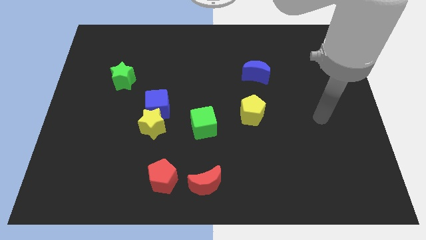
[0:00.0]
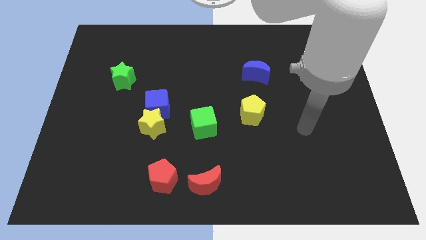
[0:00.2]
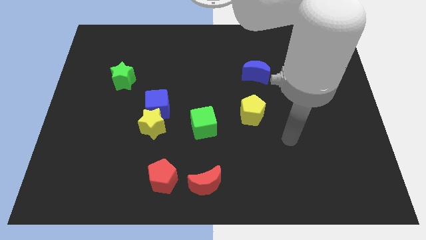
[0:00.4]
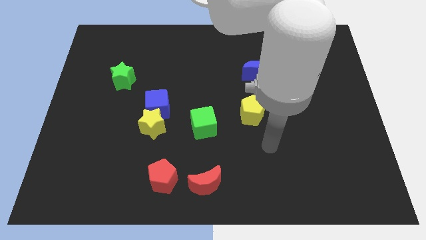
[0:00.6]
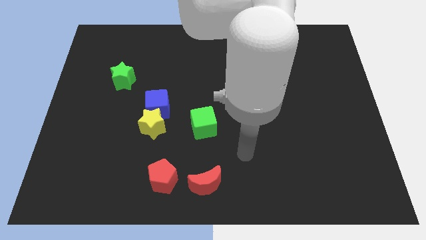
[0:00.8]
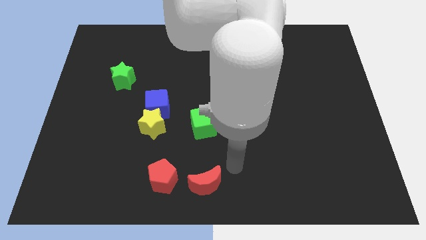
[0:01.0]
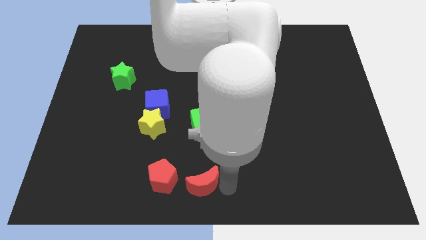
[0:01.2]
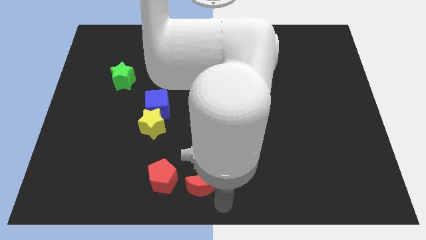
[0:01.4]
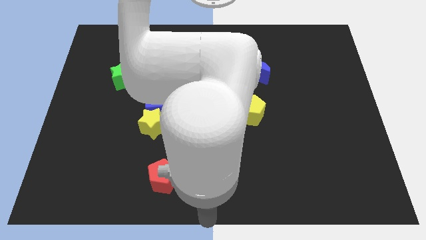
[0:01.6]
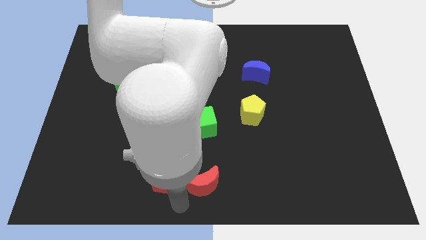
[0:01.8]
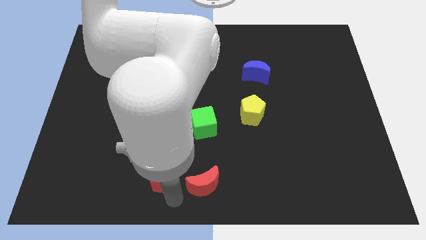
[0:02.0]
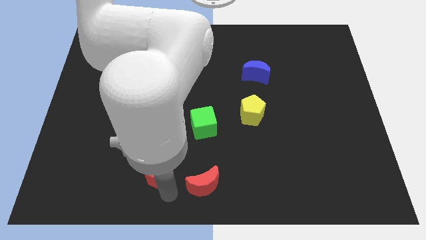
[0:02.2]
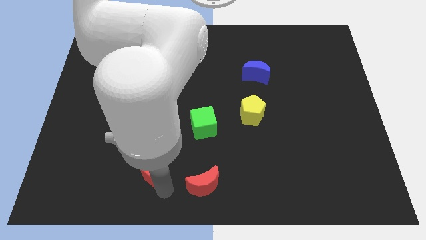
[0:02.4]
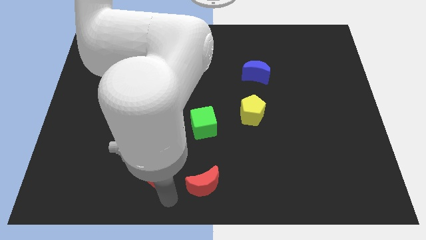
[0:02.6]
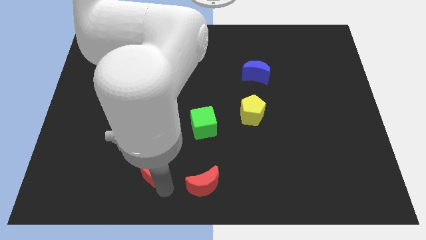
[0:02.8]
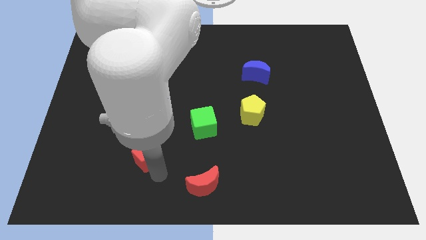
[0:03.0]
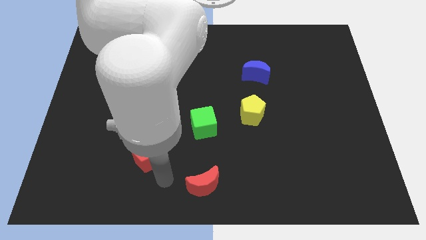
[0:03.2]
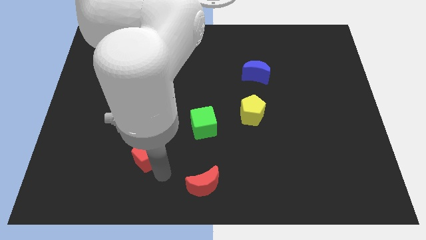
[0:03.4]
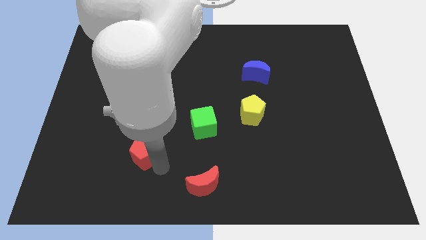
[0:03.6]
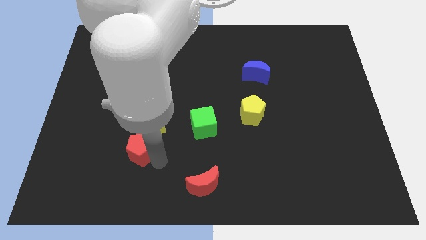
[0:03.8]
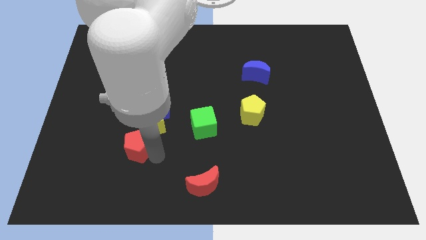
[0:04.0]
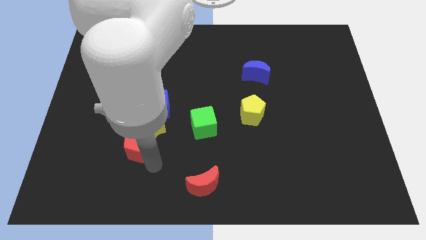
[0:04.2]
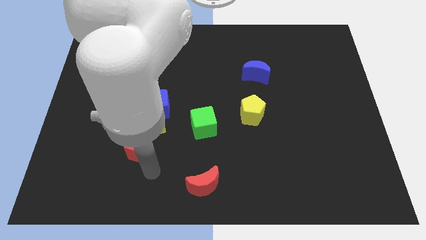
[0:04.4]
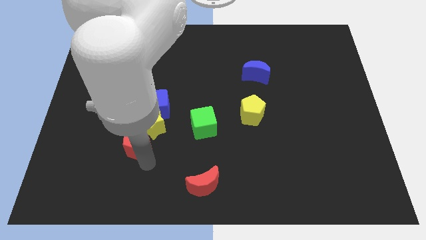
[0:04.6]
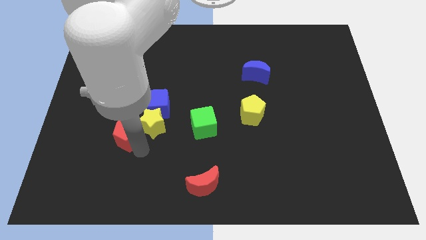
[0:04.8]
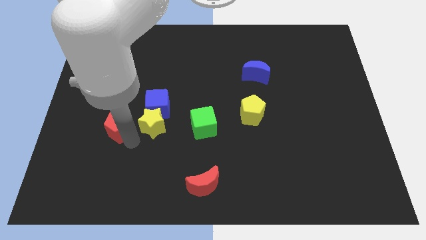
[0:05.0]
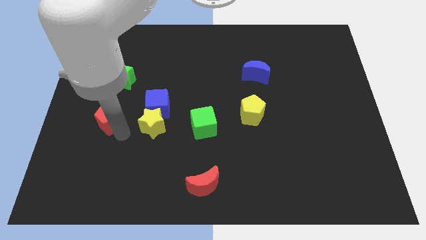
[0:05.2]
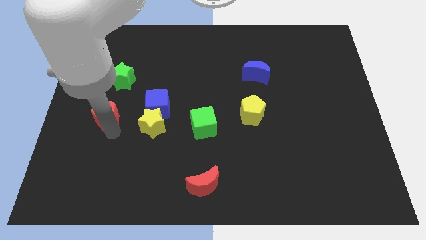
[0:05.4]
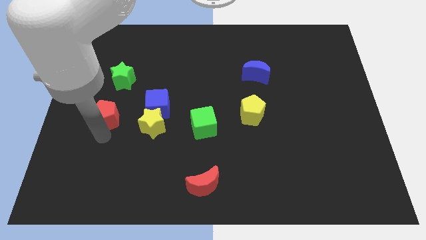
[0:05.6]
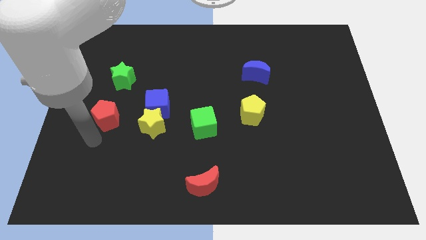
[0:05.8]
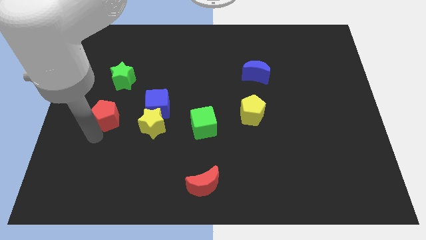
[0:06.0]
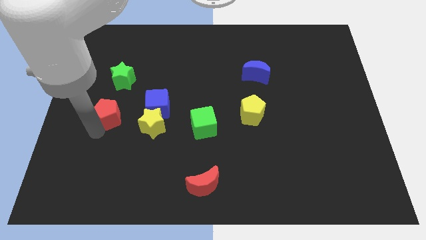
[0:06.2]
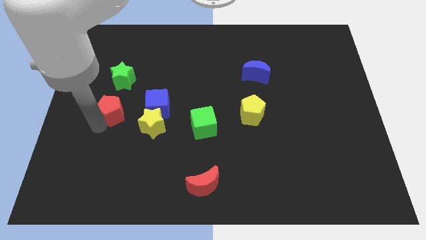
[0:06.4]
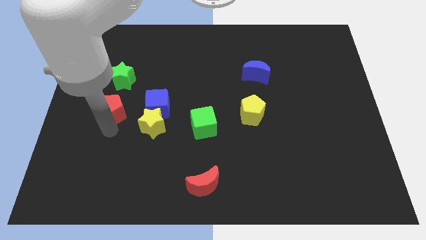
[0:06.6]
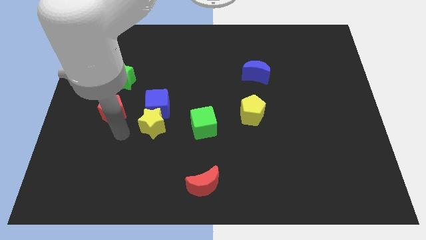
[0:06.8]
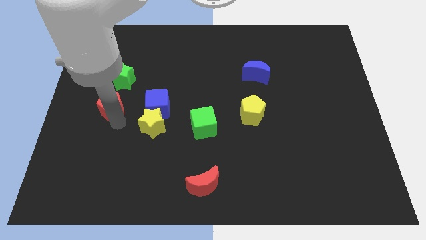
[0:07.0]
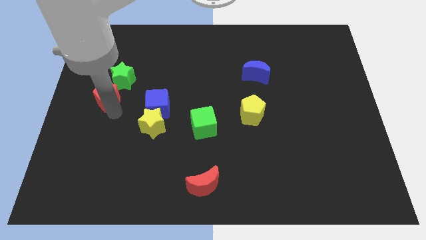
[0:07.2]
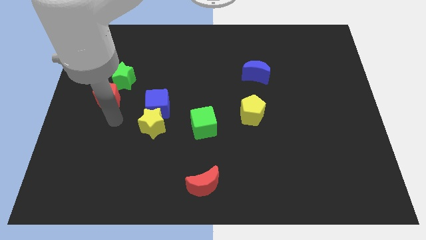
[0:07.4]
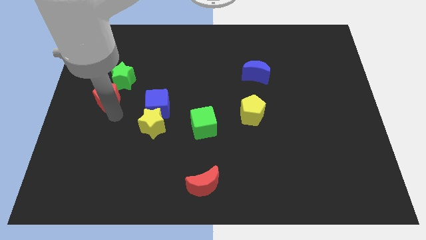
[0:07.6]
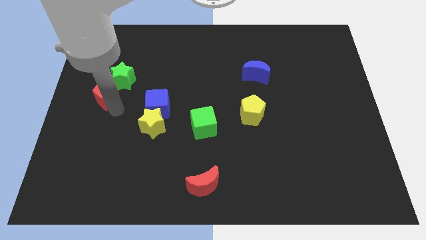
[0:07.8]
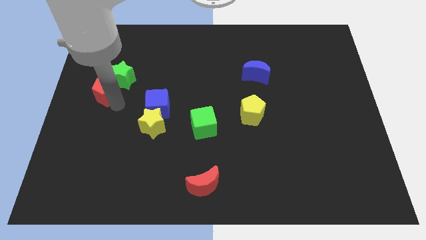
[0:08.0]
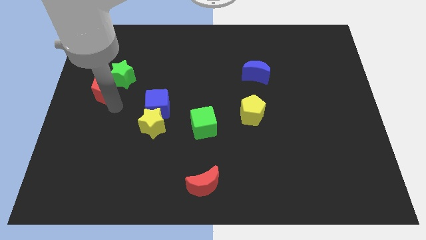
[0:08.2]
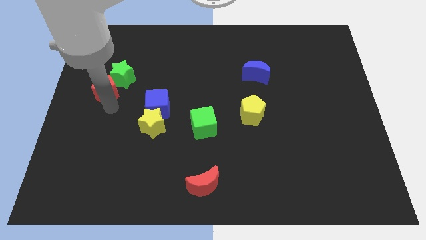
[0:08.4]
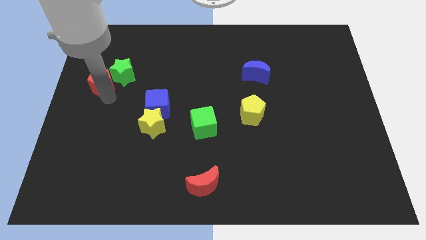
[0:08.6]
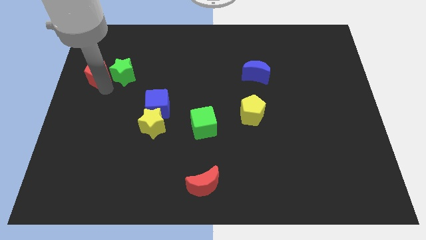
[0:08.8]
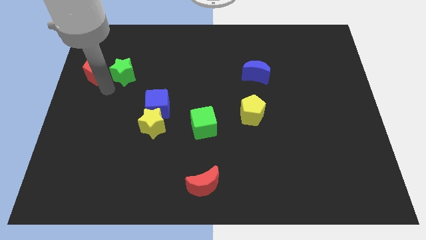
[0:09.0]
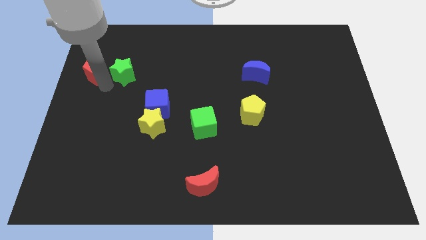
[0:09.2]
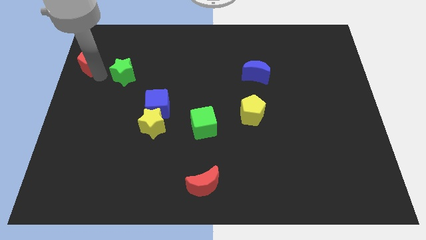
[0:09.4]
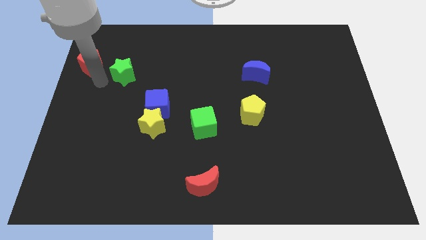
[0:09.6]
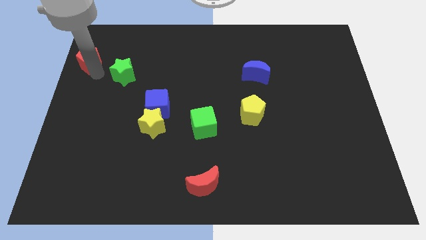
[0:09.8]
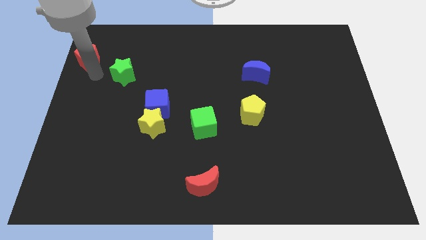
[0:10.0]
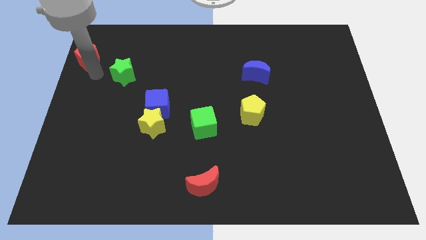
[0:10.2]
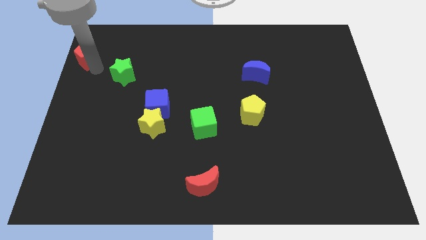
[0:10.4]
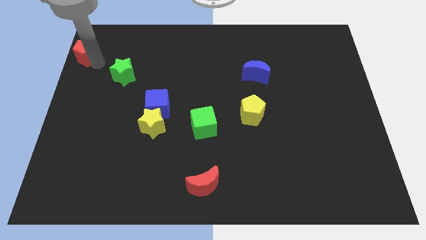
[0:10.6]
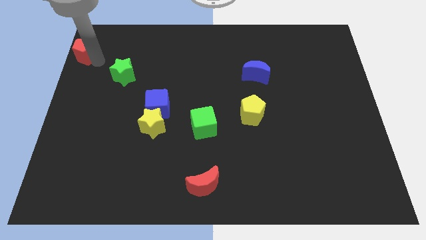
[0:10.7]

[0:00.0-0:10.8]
put the red pentagon to the top left corner

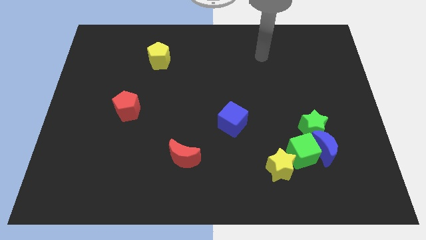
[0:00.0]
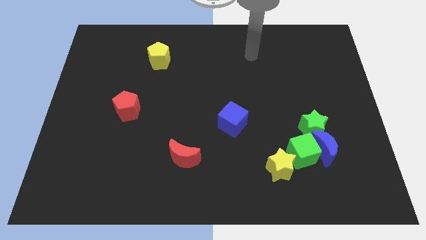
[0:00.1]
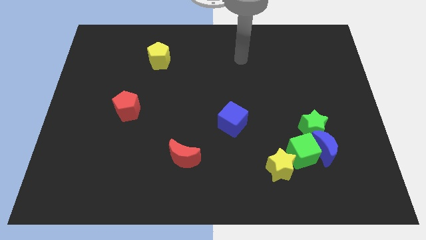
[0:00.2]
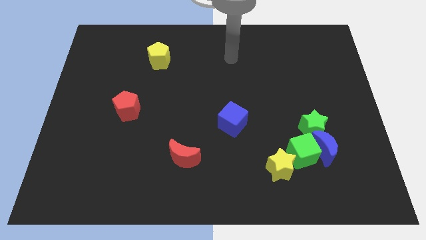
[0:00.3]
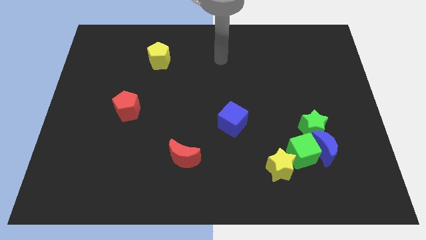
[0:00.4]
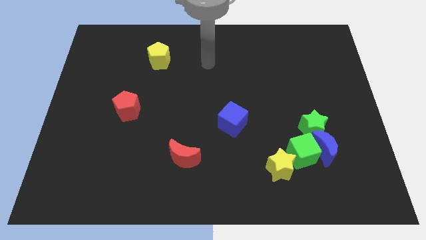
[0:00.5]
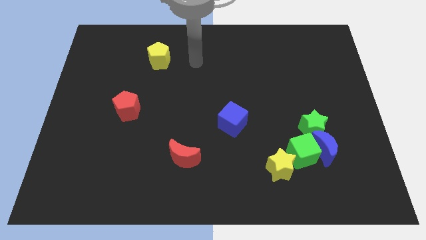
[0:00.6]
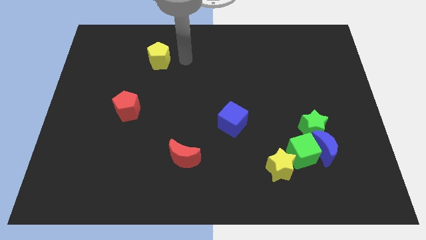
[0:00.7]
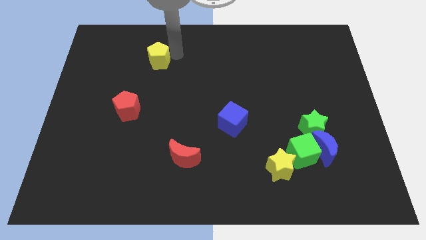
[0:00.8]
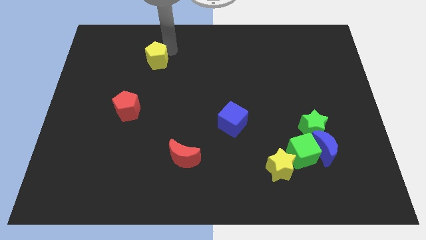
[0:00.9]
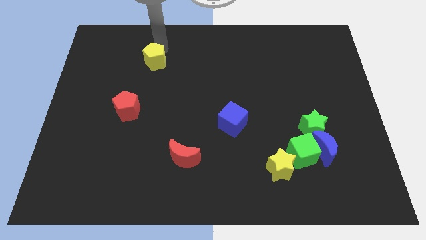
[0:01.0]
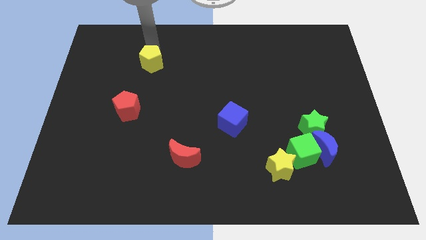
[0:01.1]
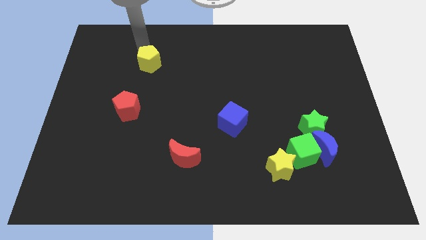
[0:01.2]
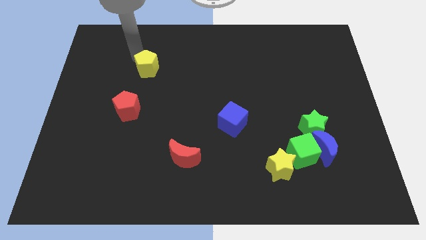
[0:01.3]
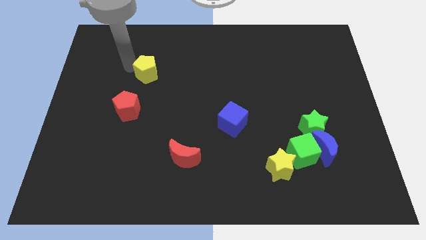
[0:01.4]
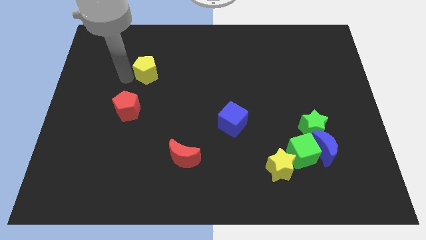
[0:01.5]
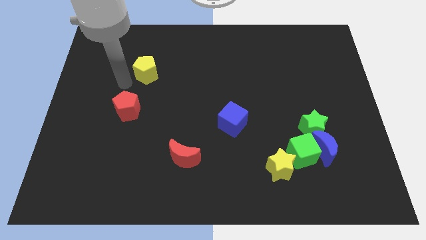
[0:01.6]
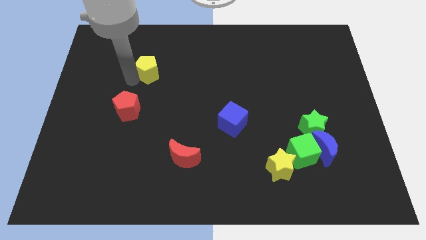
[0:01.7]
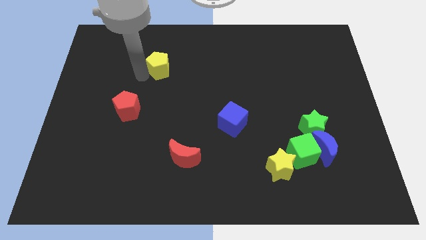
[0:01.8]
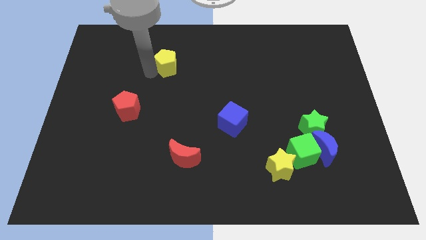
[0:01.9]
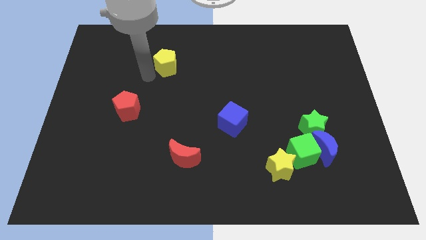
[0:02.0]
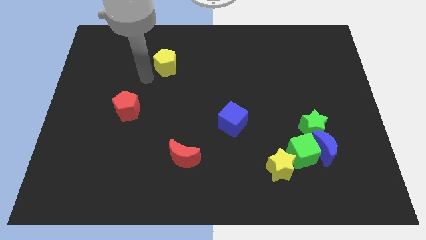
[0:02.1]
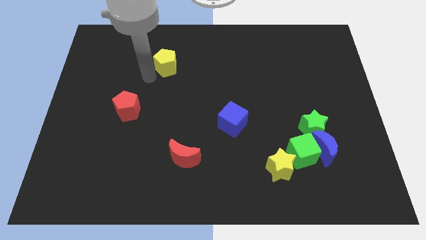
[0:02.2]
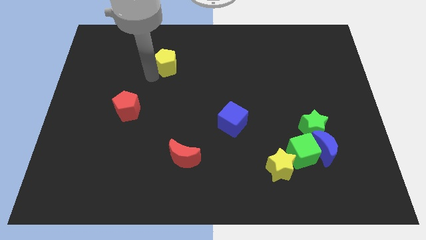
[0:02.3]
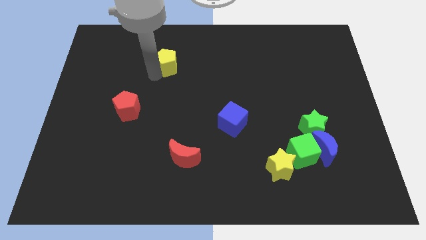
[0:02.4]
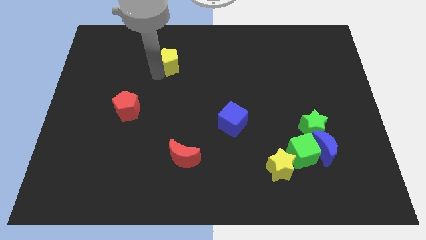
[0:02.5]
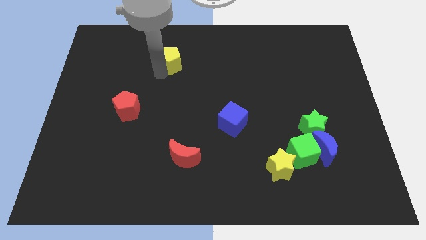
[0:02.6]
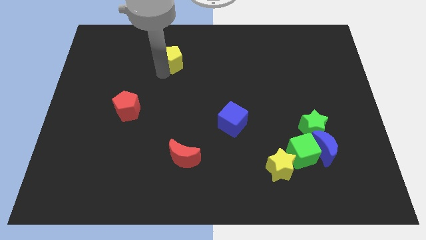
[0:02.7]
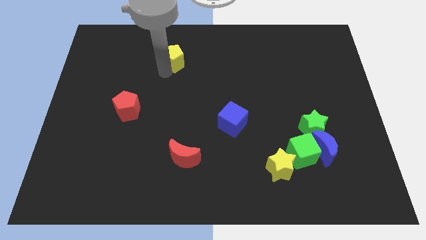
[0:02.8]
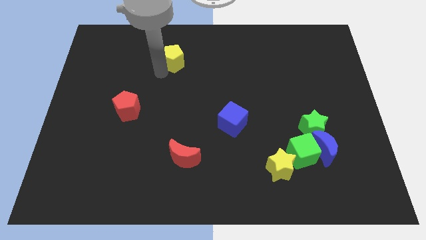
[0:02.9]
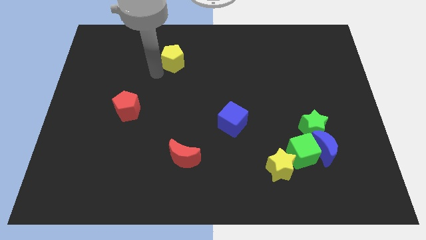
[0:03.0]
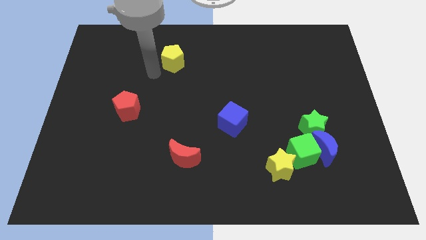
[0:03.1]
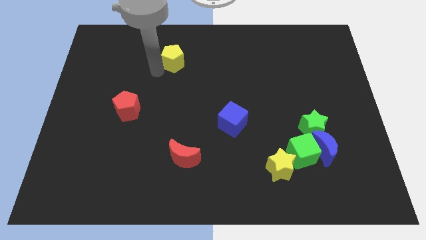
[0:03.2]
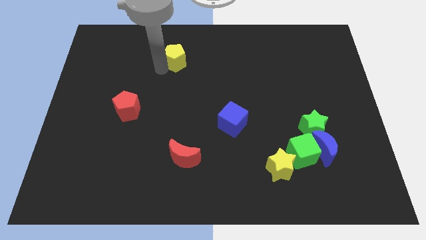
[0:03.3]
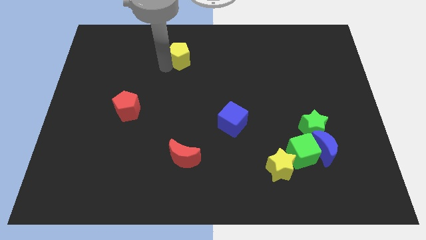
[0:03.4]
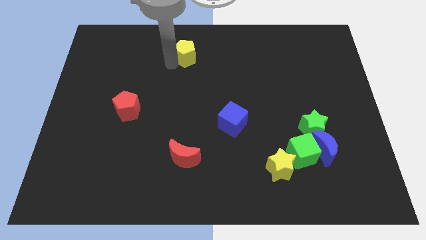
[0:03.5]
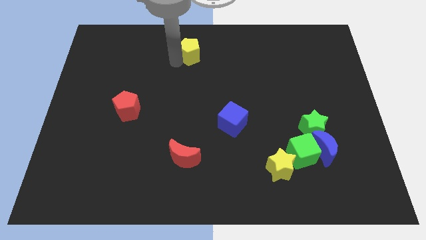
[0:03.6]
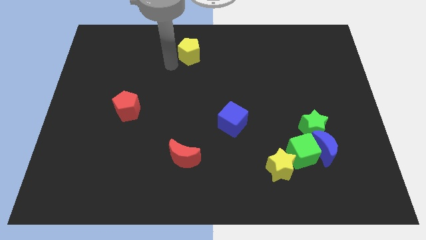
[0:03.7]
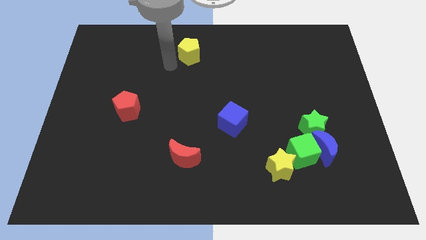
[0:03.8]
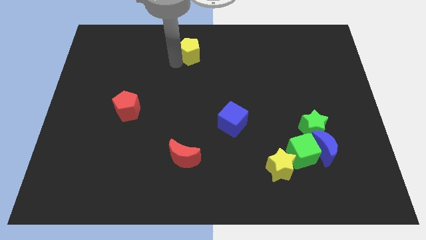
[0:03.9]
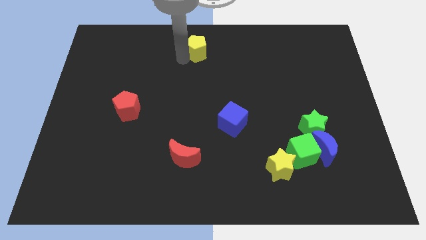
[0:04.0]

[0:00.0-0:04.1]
move the yellow pentagon to the top
